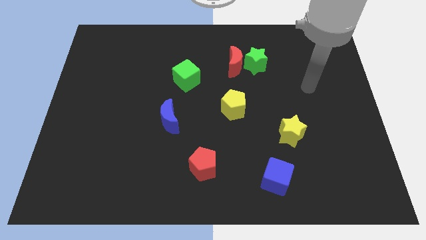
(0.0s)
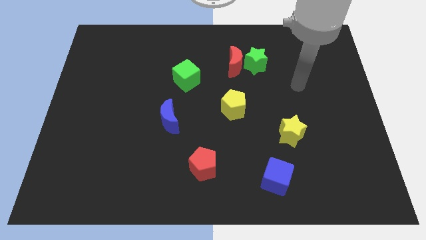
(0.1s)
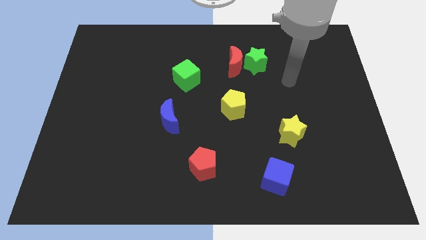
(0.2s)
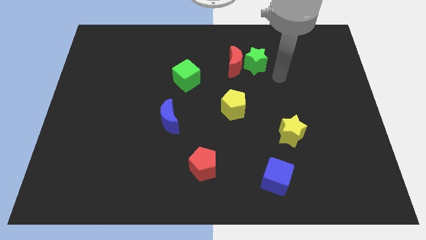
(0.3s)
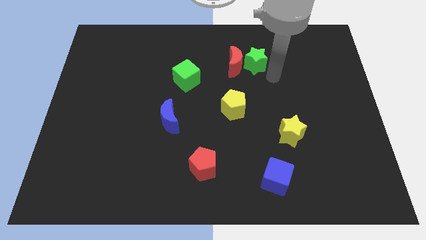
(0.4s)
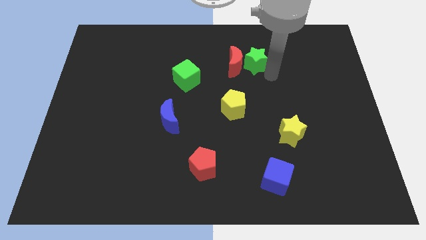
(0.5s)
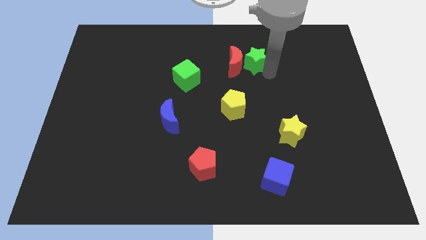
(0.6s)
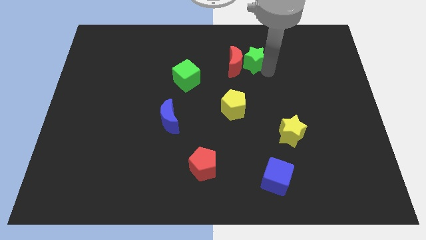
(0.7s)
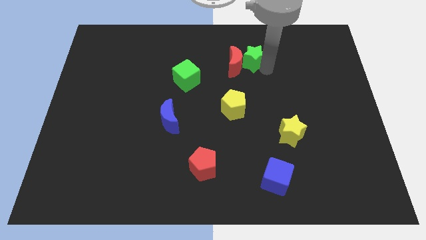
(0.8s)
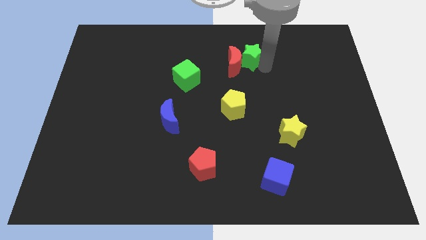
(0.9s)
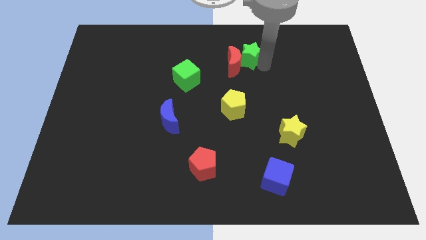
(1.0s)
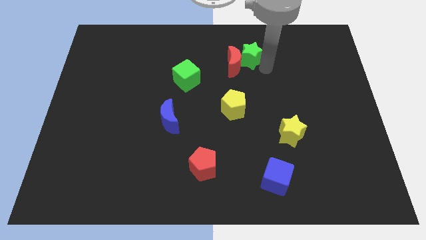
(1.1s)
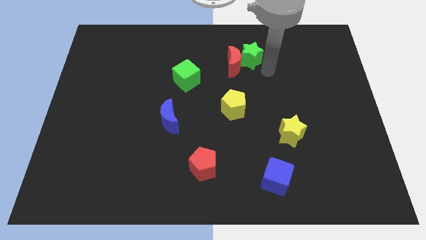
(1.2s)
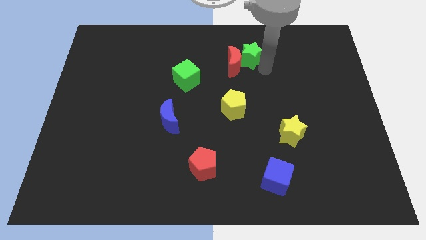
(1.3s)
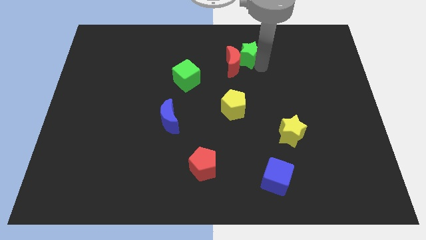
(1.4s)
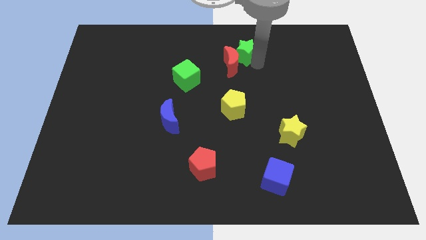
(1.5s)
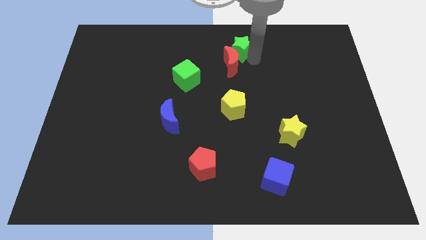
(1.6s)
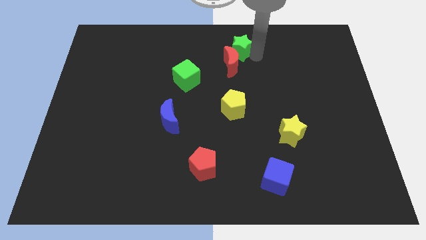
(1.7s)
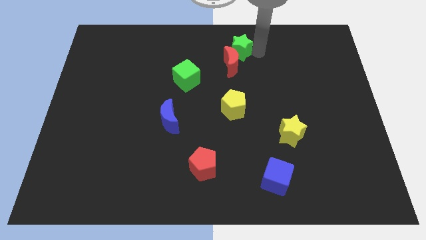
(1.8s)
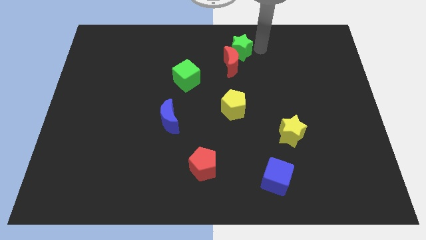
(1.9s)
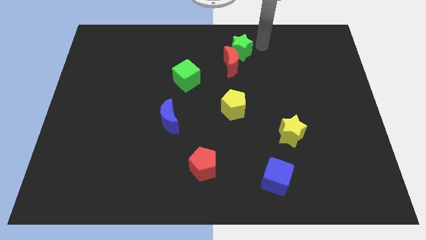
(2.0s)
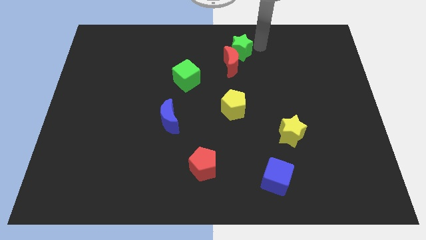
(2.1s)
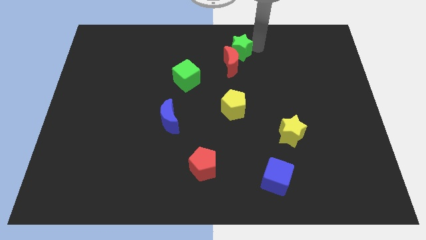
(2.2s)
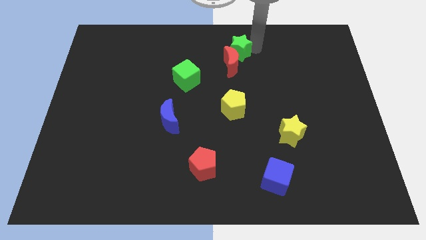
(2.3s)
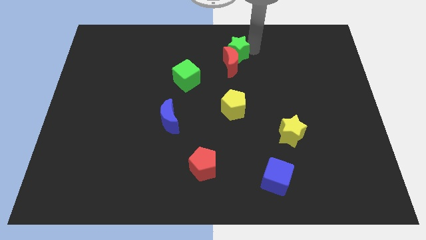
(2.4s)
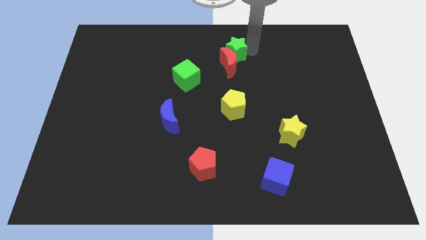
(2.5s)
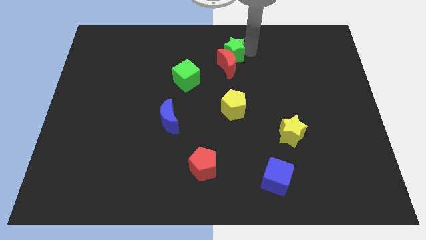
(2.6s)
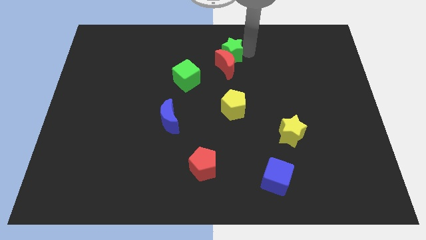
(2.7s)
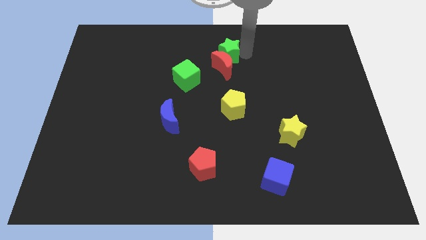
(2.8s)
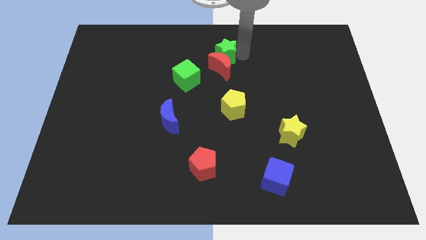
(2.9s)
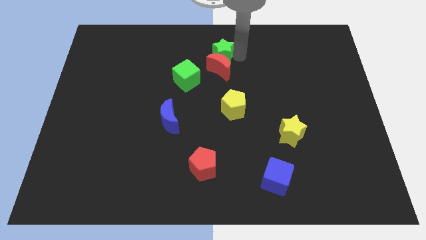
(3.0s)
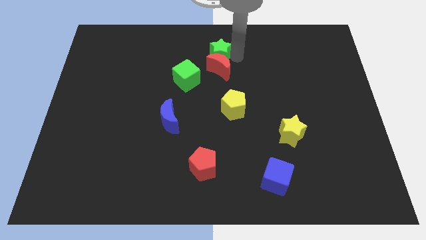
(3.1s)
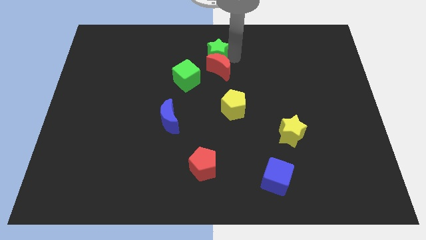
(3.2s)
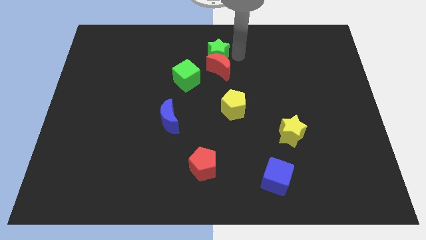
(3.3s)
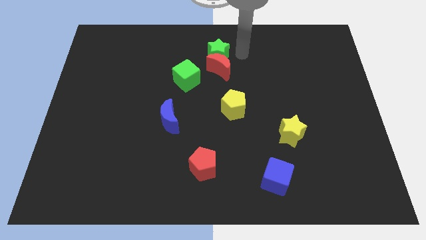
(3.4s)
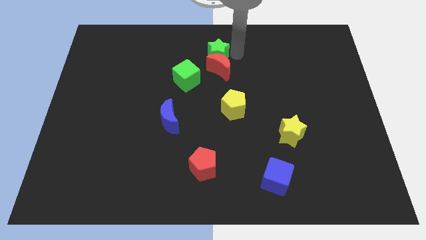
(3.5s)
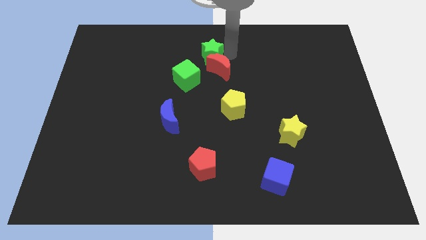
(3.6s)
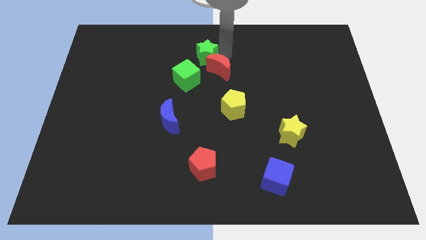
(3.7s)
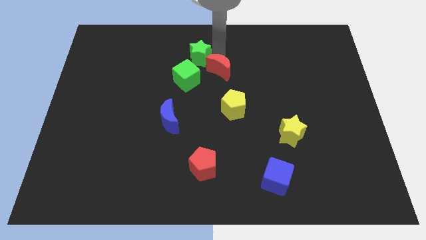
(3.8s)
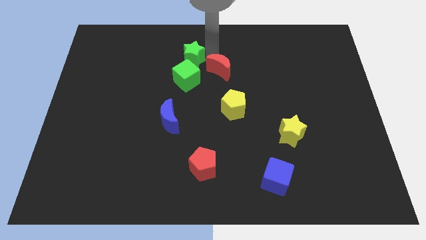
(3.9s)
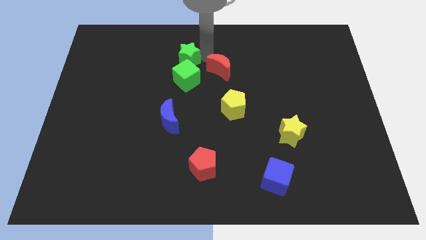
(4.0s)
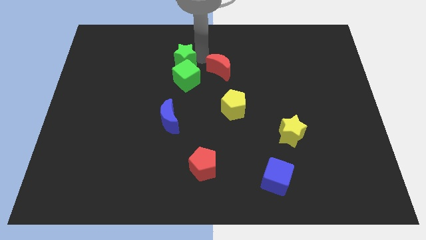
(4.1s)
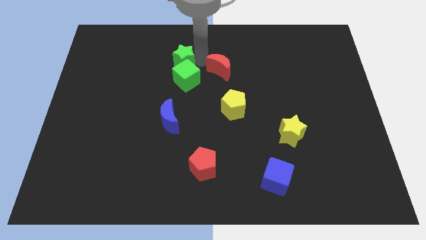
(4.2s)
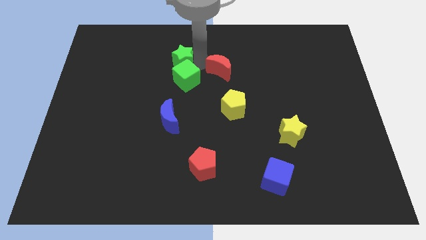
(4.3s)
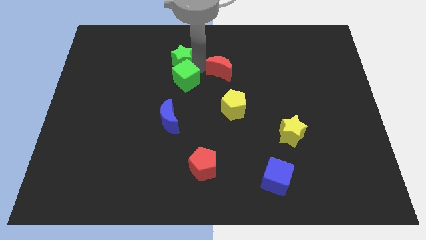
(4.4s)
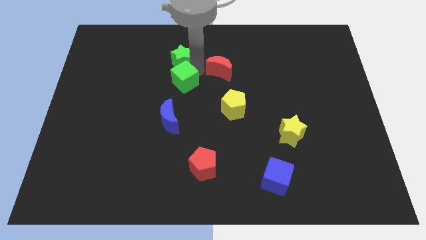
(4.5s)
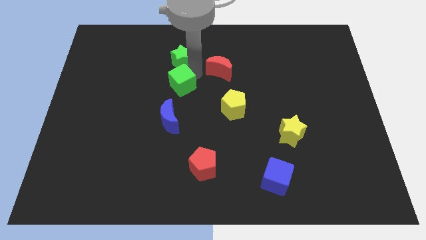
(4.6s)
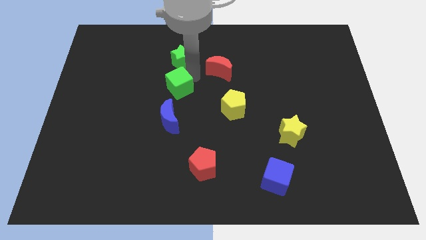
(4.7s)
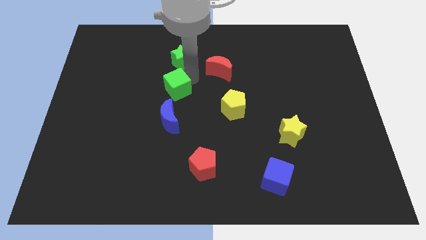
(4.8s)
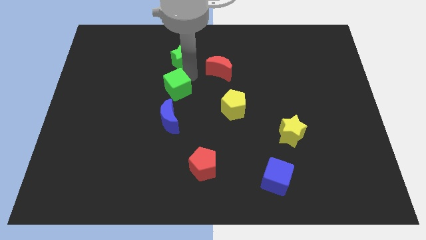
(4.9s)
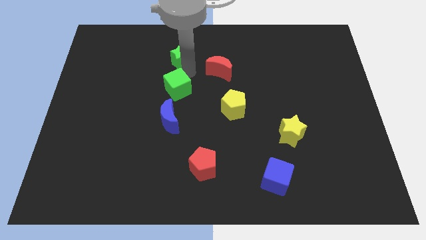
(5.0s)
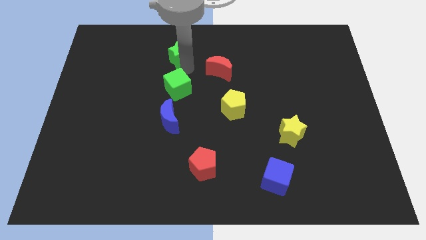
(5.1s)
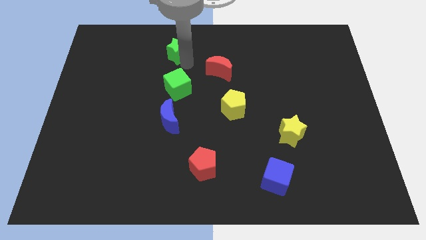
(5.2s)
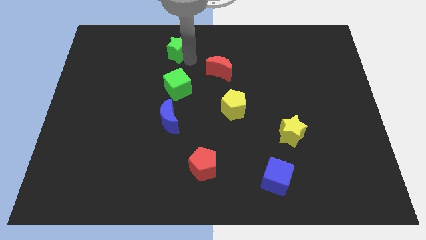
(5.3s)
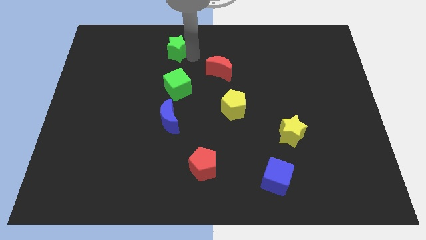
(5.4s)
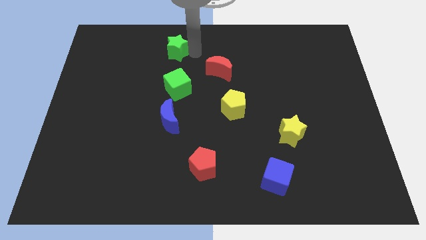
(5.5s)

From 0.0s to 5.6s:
push the green star left

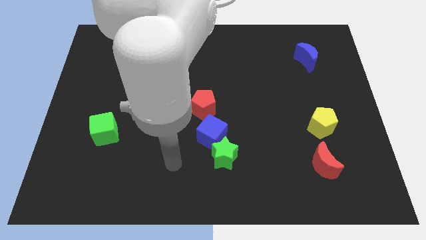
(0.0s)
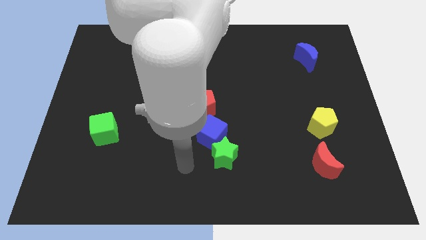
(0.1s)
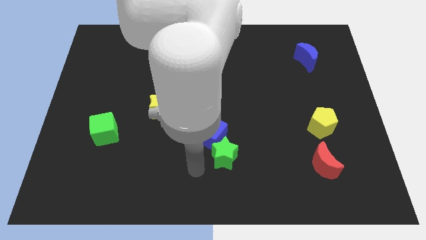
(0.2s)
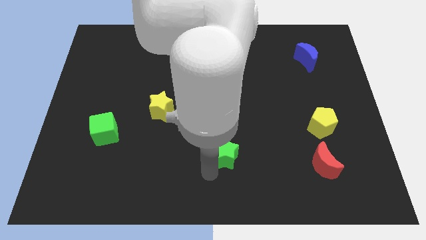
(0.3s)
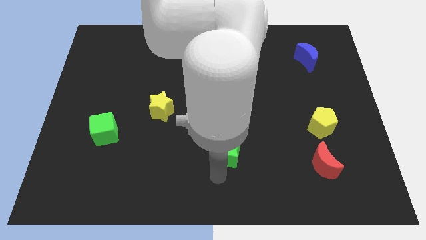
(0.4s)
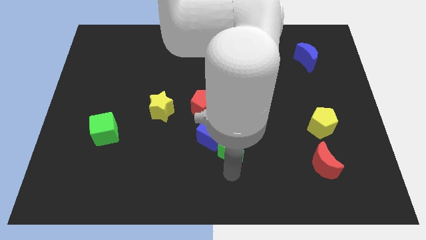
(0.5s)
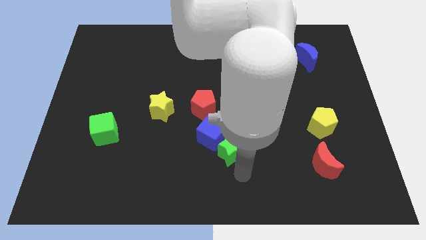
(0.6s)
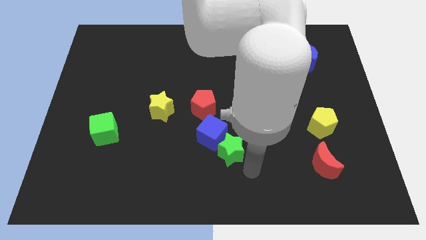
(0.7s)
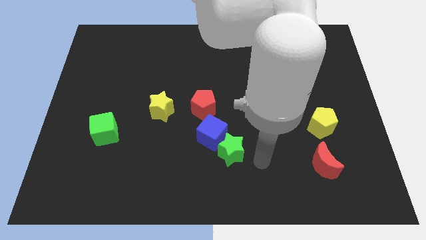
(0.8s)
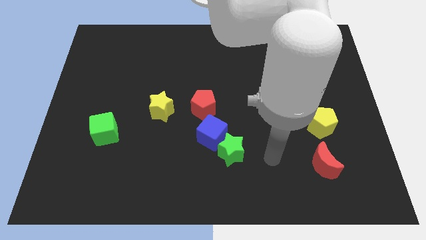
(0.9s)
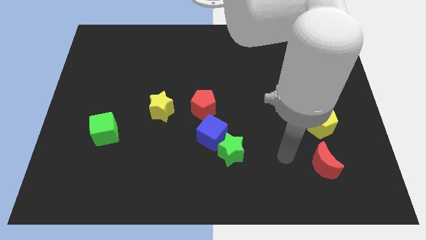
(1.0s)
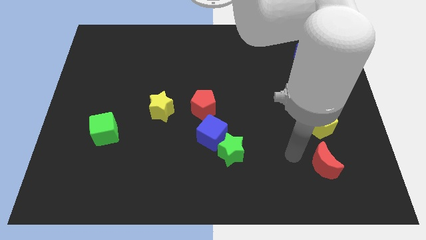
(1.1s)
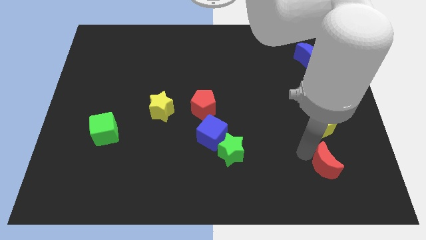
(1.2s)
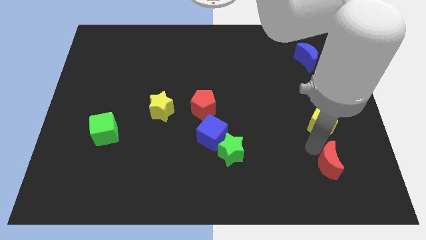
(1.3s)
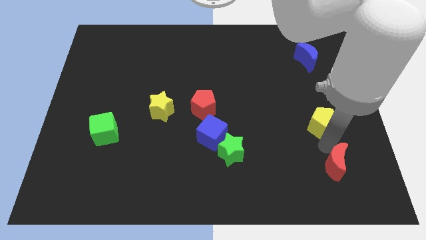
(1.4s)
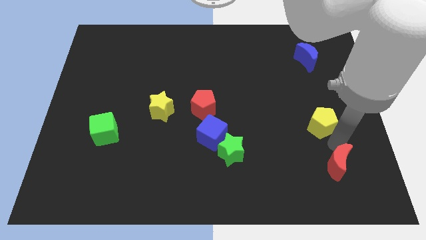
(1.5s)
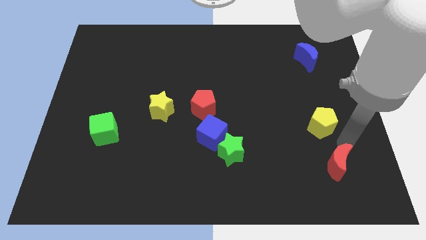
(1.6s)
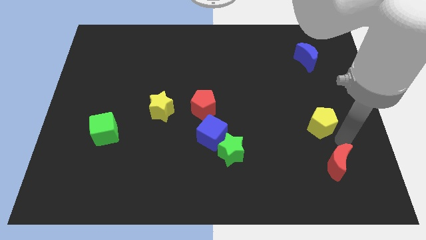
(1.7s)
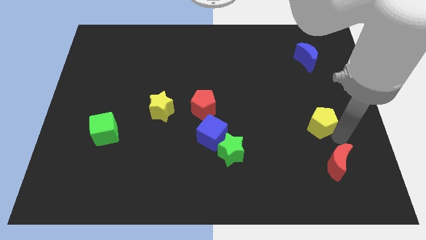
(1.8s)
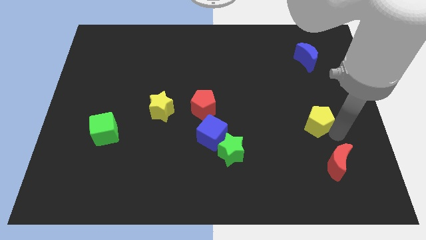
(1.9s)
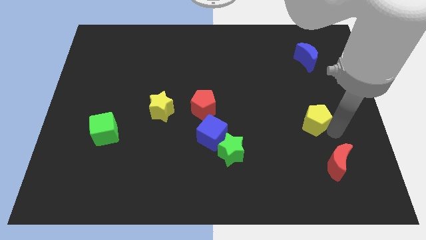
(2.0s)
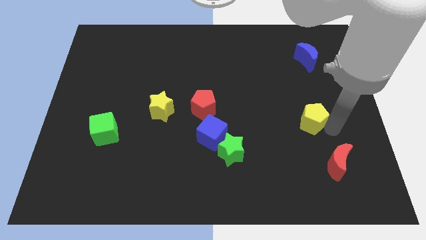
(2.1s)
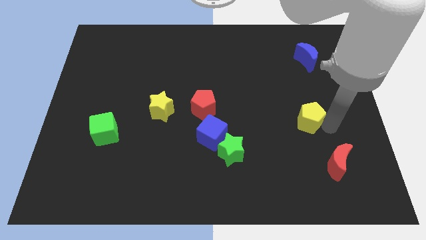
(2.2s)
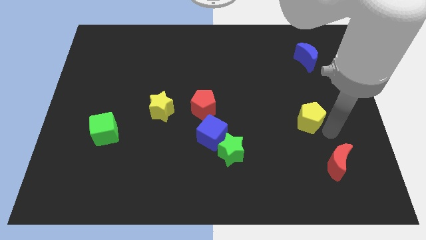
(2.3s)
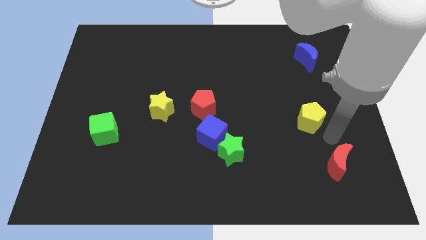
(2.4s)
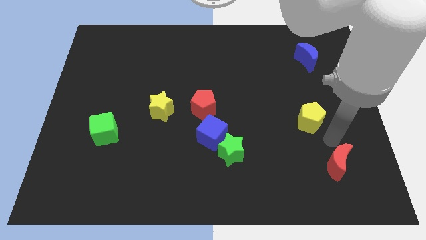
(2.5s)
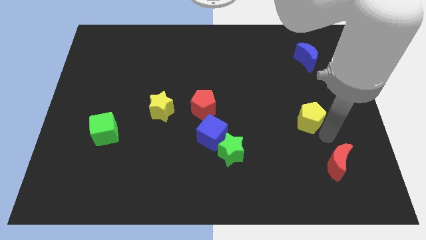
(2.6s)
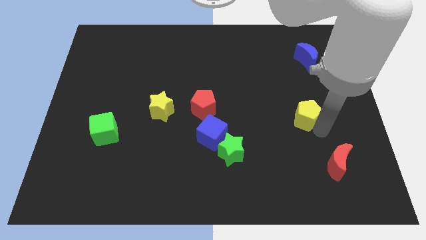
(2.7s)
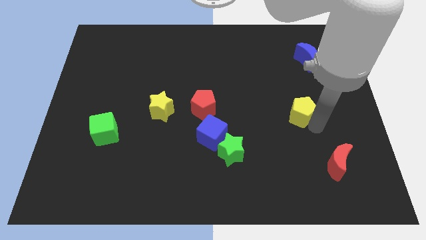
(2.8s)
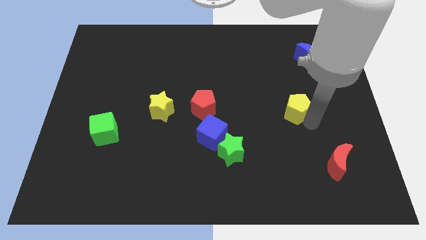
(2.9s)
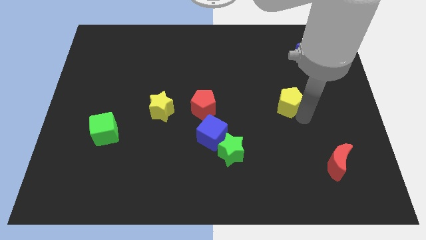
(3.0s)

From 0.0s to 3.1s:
push the yellow pentagon slightly upwards and left diagonally
